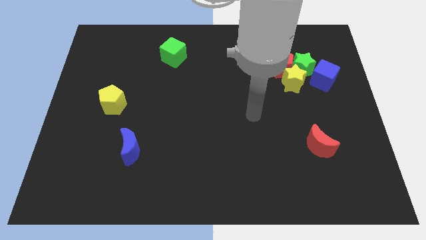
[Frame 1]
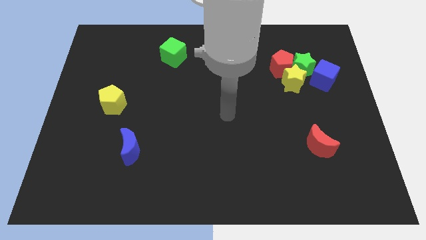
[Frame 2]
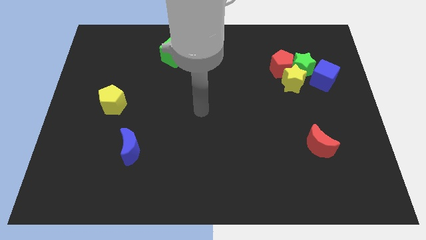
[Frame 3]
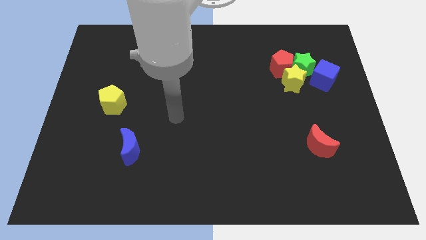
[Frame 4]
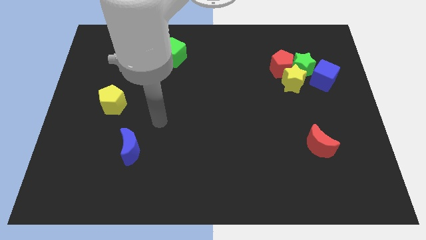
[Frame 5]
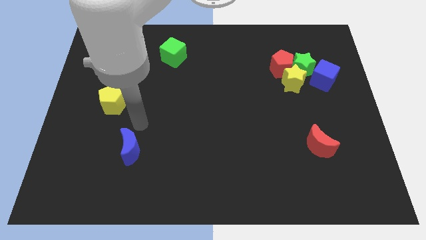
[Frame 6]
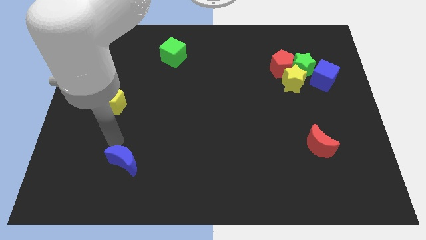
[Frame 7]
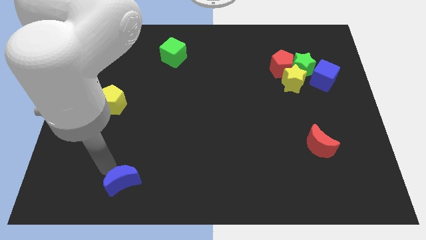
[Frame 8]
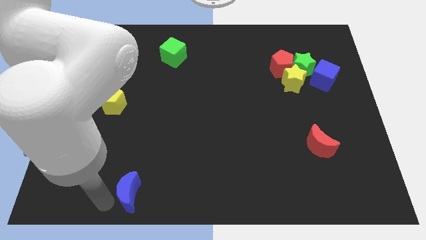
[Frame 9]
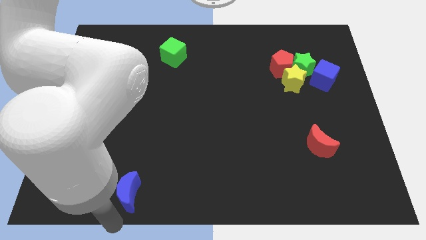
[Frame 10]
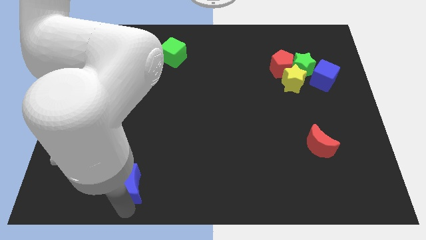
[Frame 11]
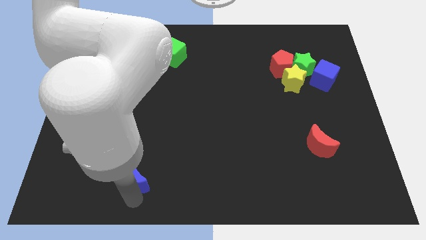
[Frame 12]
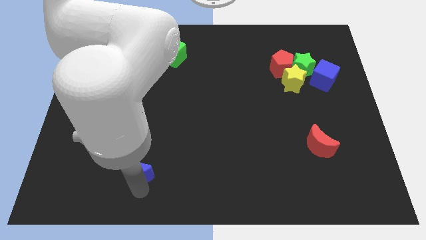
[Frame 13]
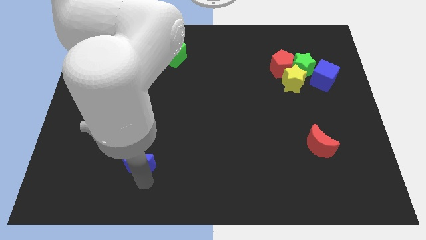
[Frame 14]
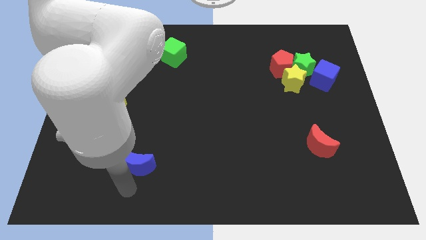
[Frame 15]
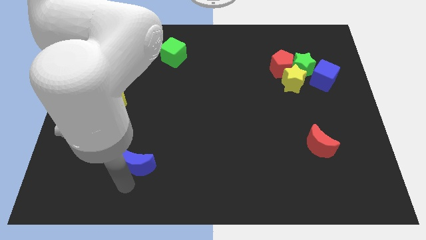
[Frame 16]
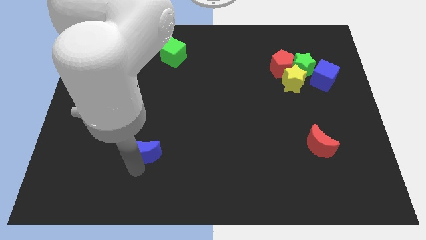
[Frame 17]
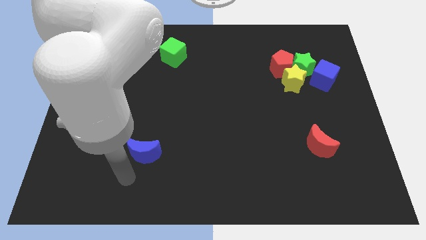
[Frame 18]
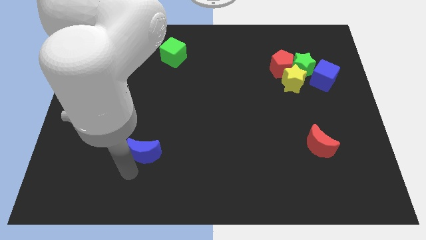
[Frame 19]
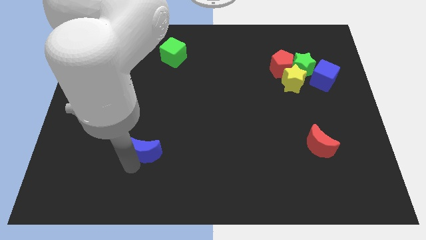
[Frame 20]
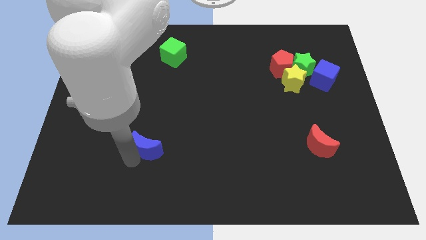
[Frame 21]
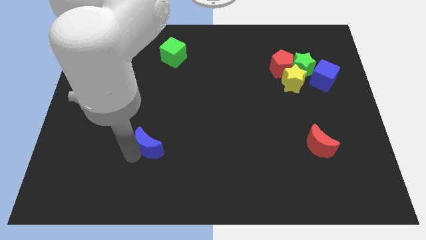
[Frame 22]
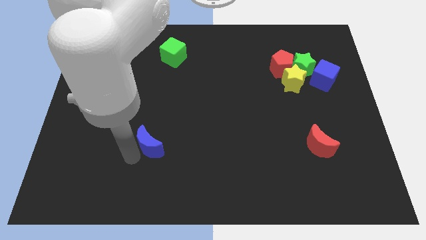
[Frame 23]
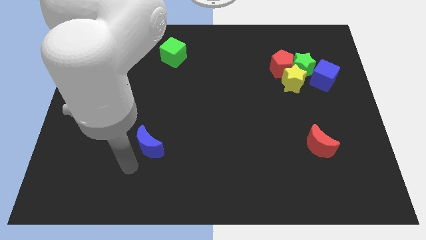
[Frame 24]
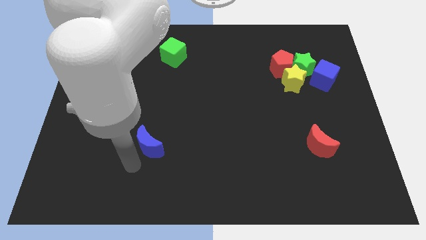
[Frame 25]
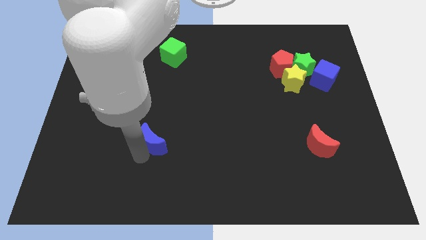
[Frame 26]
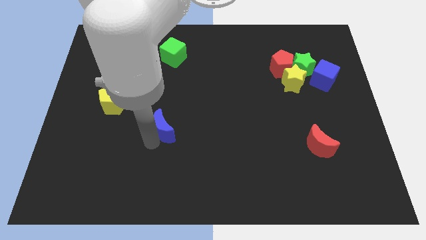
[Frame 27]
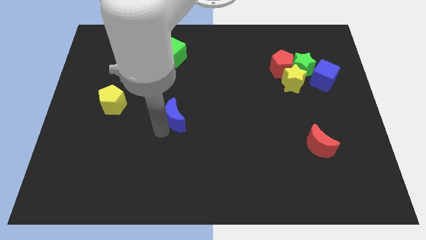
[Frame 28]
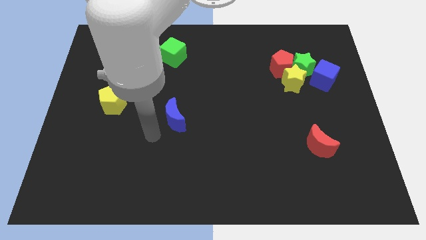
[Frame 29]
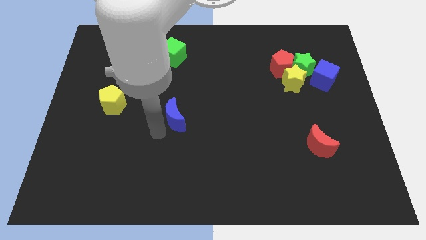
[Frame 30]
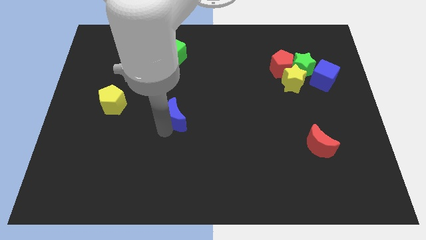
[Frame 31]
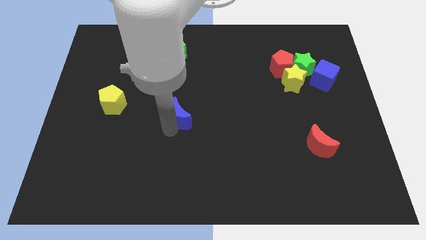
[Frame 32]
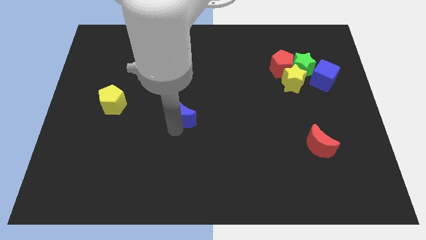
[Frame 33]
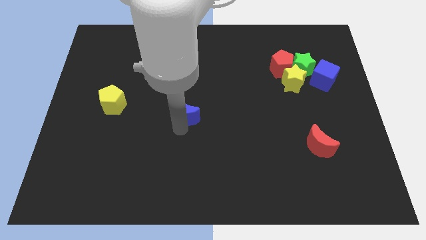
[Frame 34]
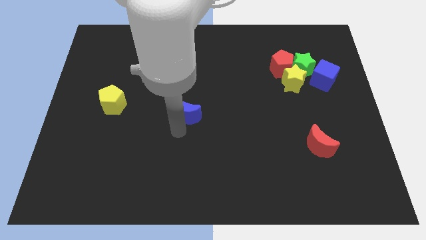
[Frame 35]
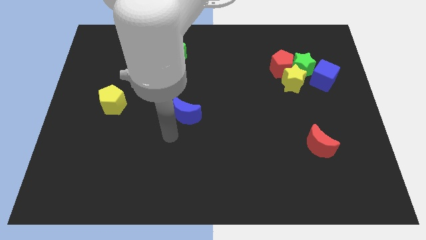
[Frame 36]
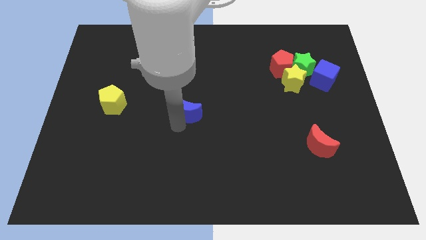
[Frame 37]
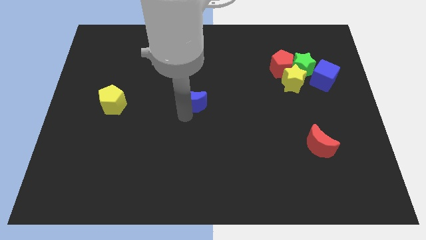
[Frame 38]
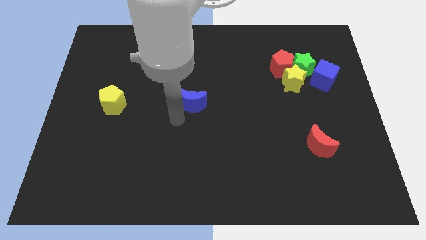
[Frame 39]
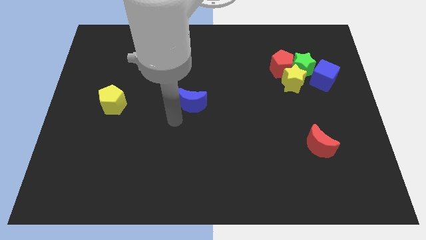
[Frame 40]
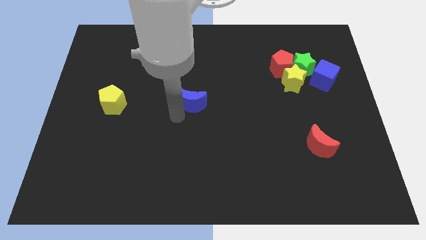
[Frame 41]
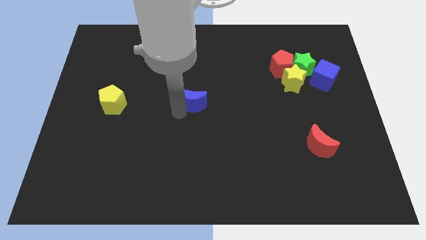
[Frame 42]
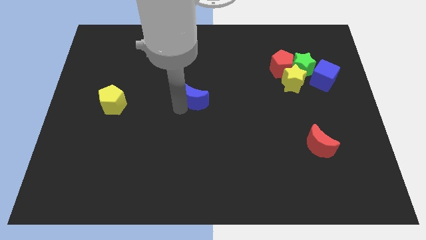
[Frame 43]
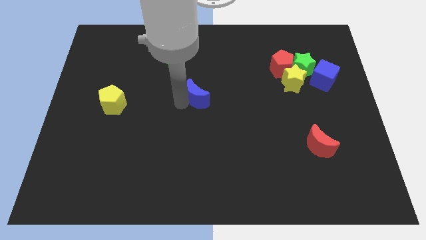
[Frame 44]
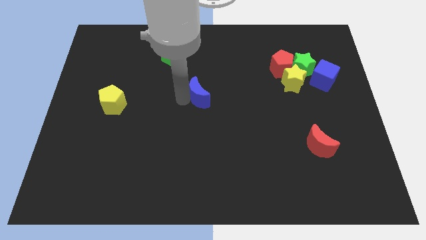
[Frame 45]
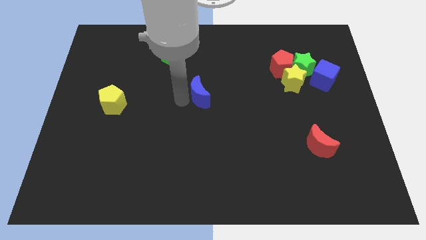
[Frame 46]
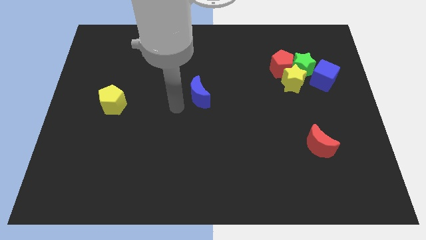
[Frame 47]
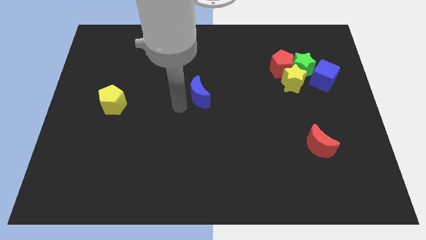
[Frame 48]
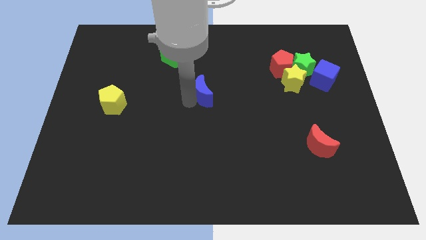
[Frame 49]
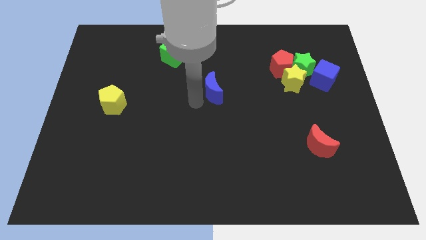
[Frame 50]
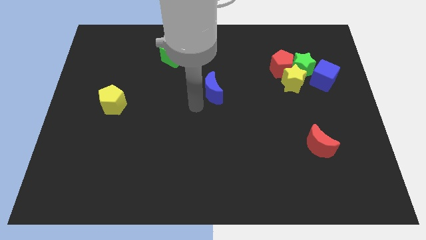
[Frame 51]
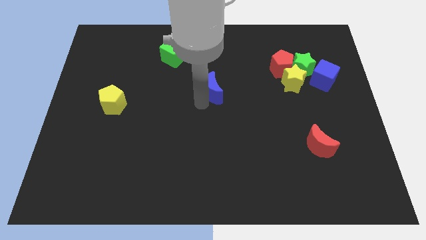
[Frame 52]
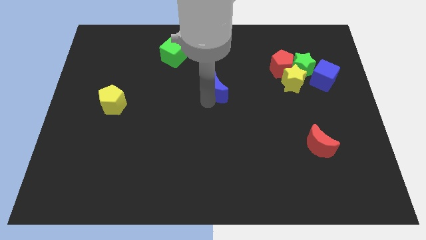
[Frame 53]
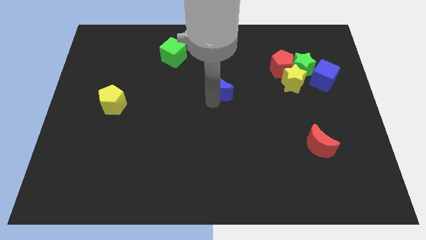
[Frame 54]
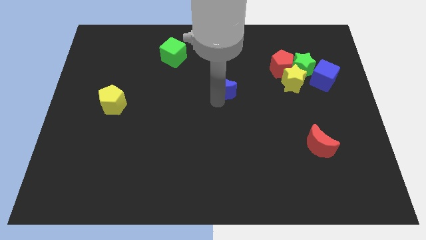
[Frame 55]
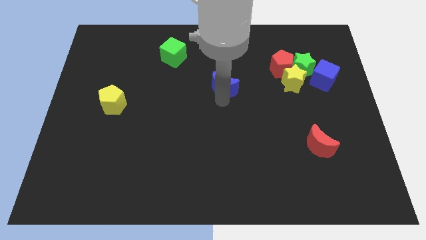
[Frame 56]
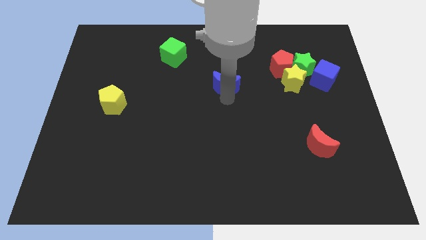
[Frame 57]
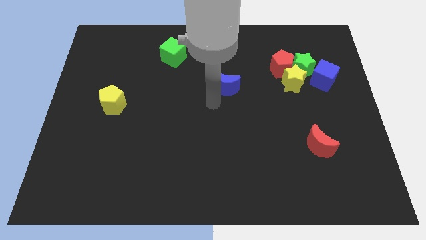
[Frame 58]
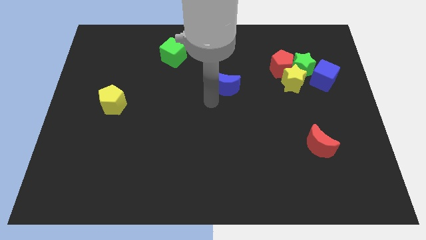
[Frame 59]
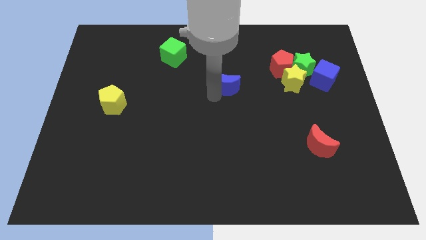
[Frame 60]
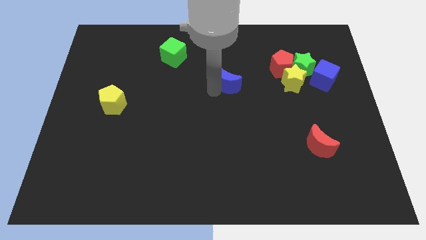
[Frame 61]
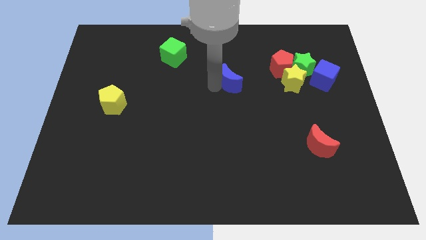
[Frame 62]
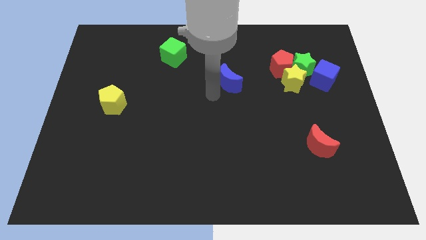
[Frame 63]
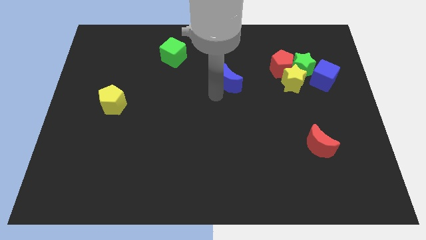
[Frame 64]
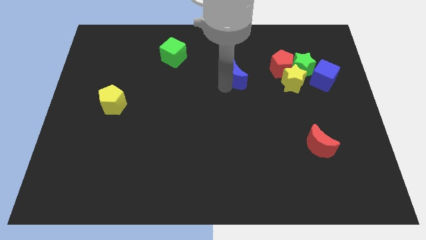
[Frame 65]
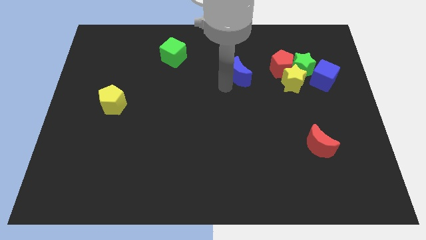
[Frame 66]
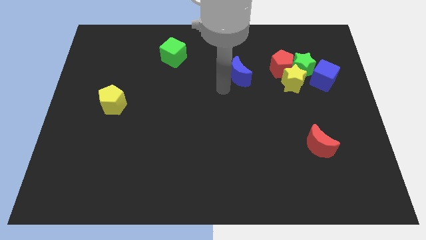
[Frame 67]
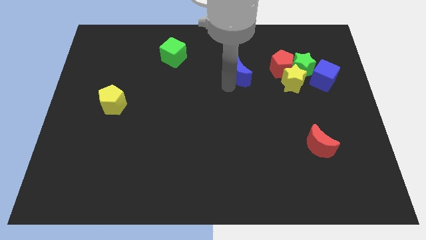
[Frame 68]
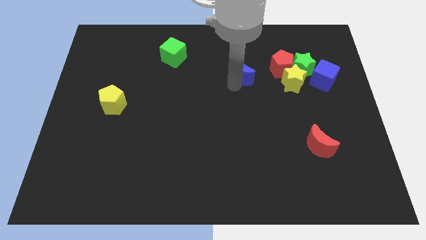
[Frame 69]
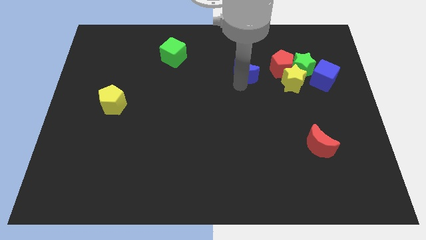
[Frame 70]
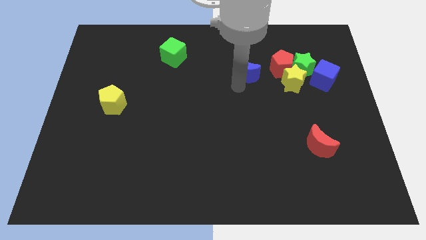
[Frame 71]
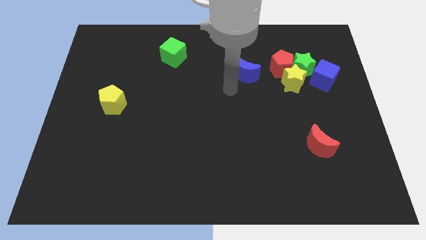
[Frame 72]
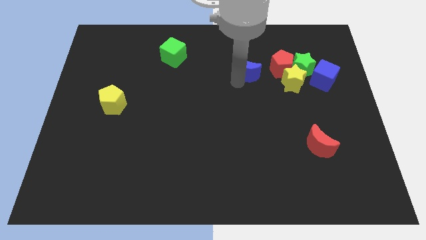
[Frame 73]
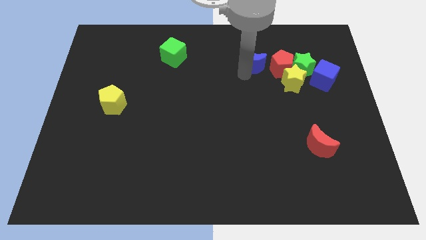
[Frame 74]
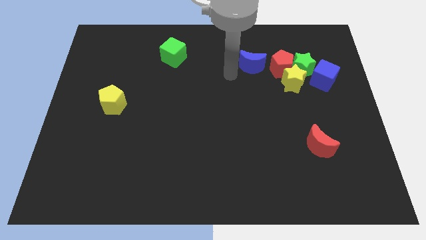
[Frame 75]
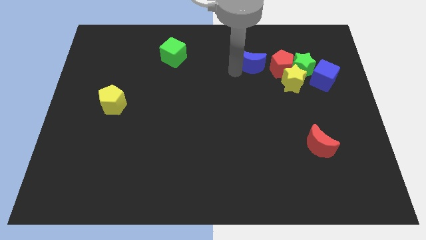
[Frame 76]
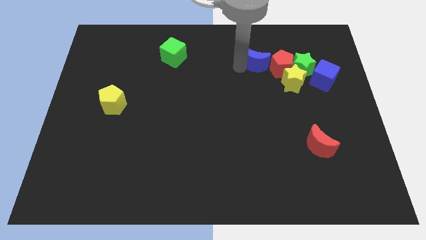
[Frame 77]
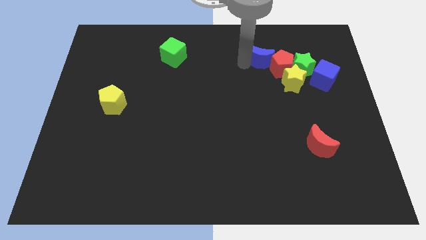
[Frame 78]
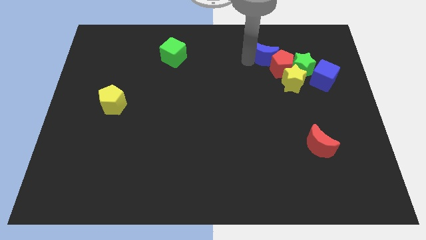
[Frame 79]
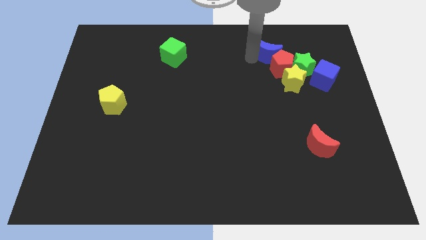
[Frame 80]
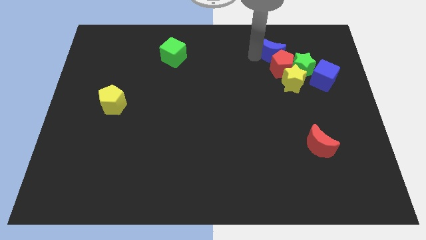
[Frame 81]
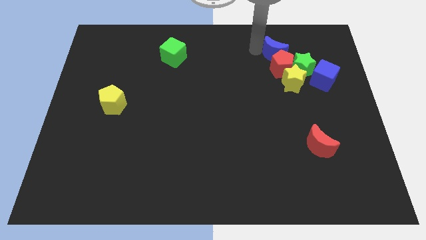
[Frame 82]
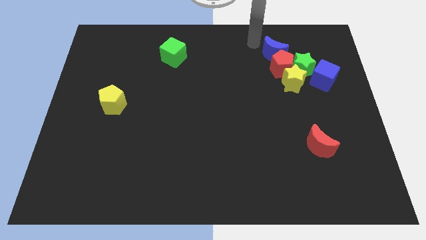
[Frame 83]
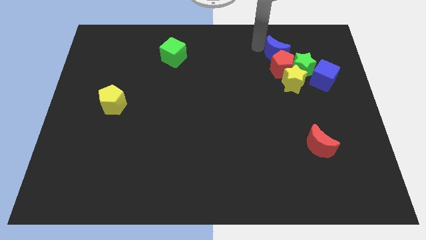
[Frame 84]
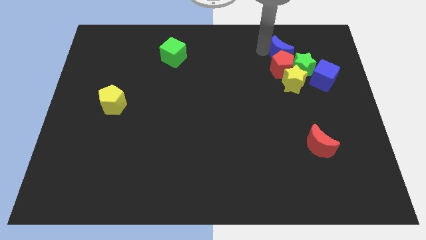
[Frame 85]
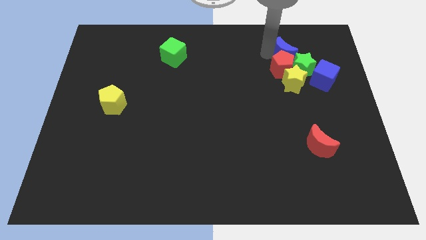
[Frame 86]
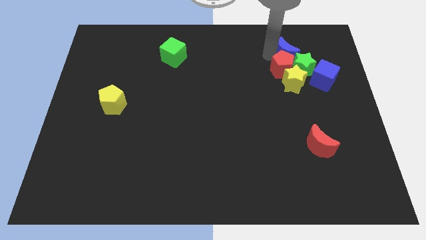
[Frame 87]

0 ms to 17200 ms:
push the blue moon to the green star
